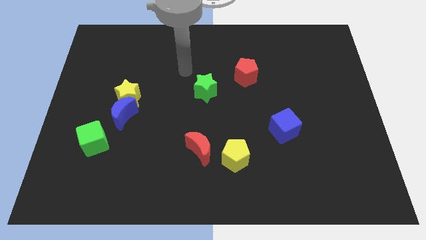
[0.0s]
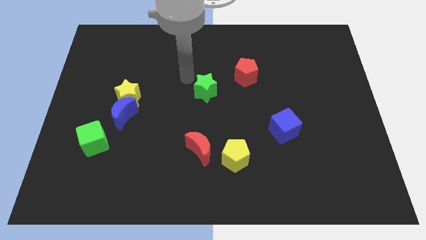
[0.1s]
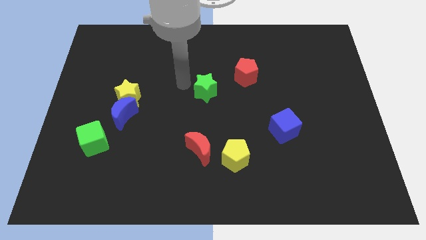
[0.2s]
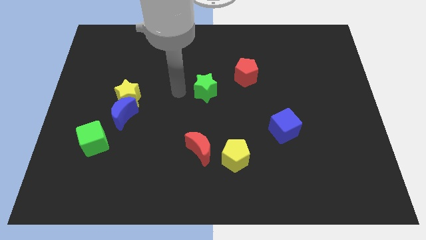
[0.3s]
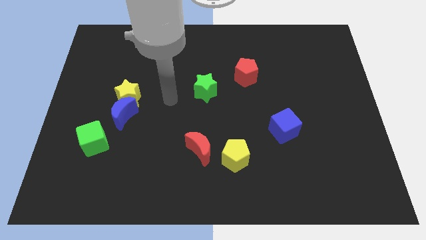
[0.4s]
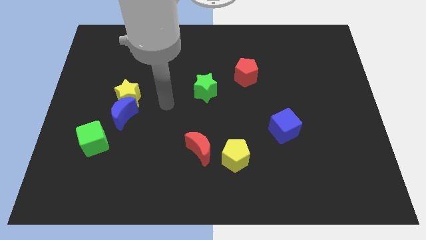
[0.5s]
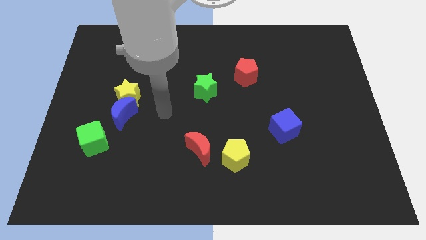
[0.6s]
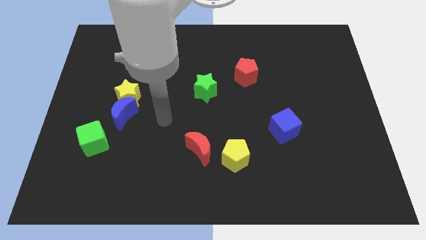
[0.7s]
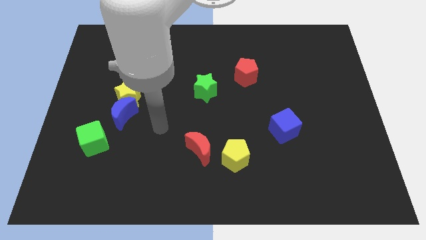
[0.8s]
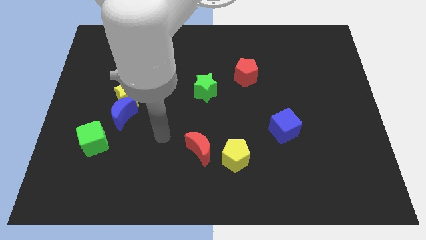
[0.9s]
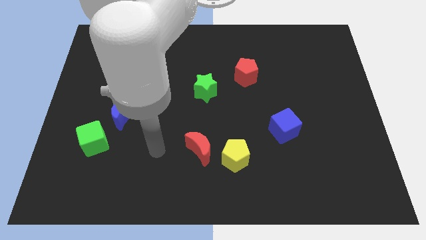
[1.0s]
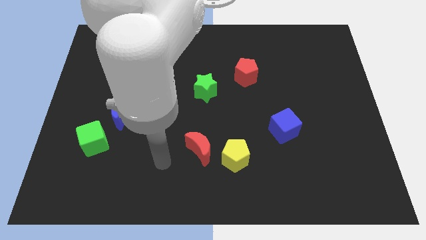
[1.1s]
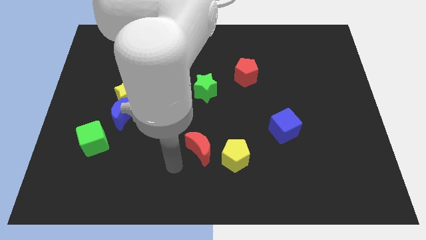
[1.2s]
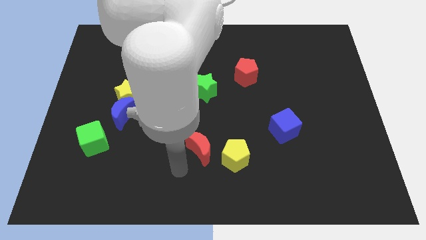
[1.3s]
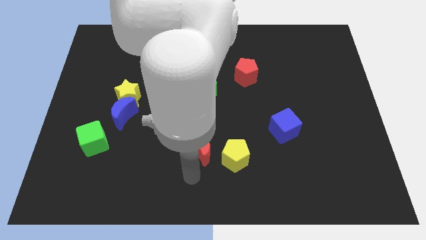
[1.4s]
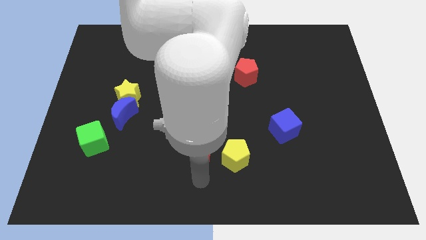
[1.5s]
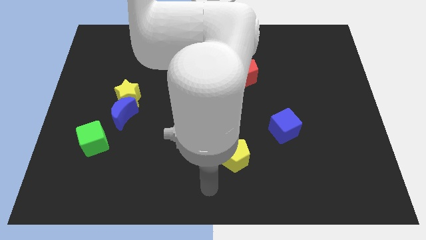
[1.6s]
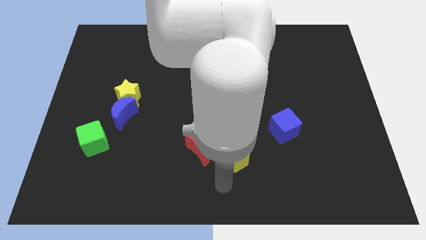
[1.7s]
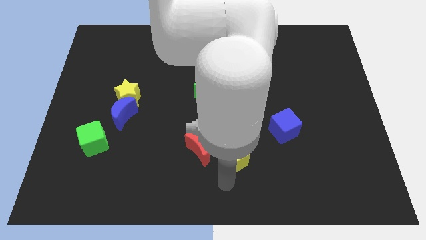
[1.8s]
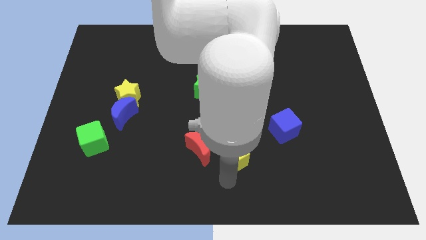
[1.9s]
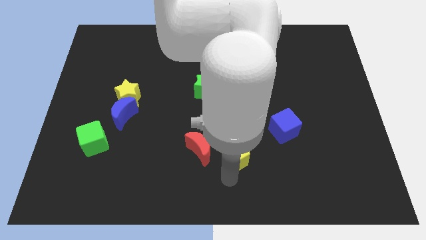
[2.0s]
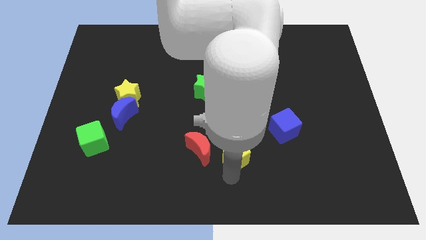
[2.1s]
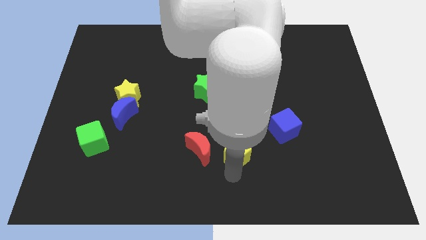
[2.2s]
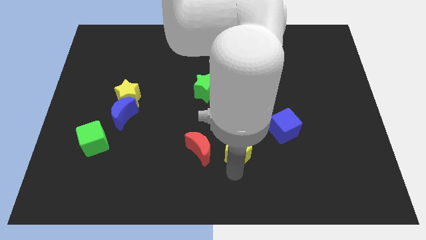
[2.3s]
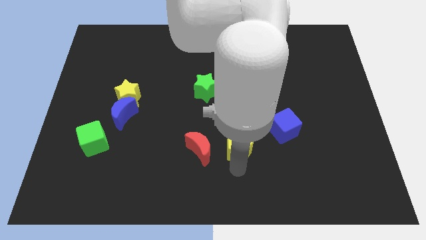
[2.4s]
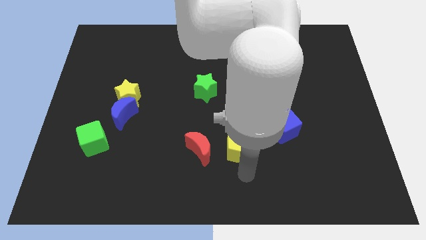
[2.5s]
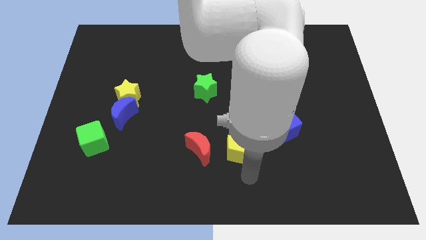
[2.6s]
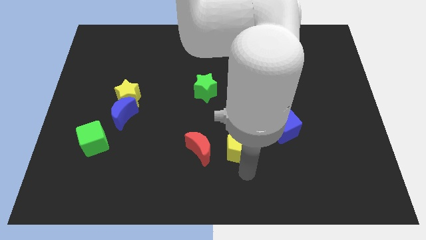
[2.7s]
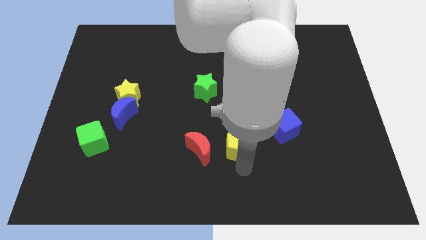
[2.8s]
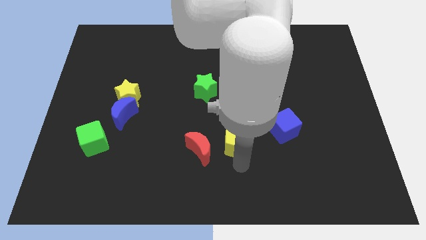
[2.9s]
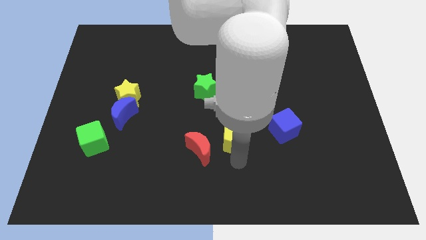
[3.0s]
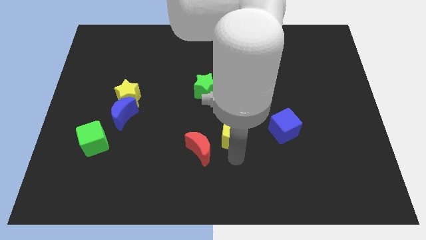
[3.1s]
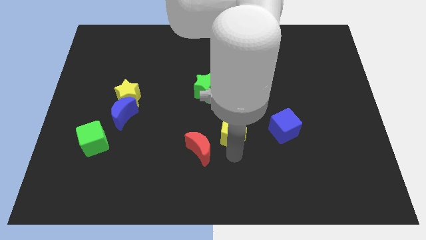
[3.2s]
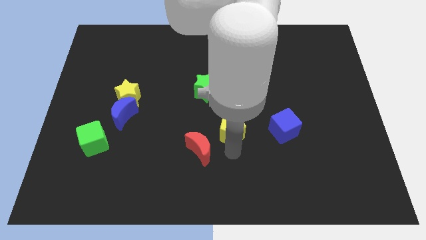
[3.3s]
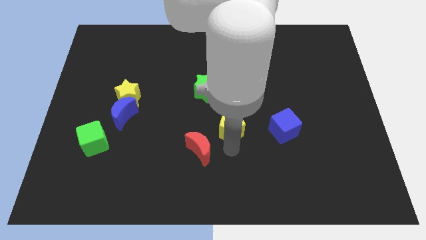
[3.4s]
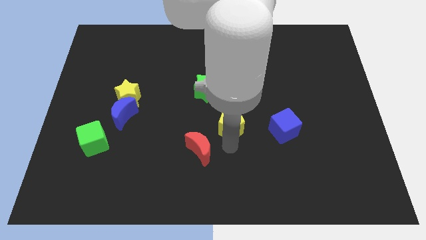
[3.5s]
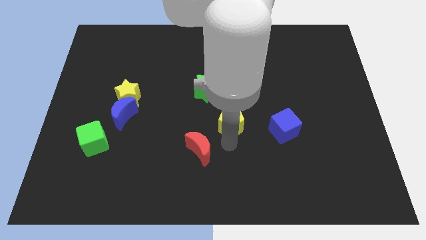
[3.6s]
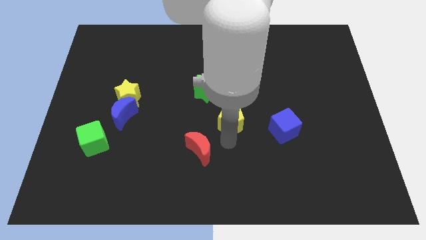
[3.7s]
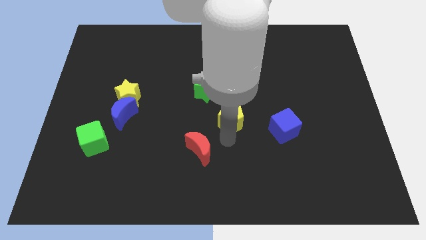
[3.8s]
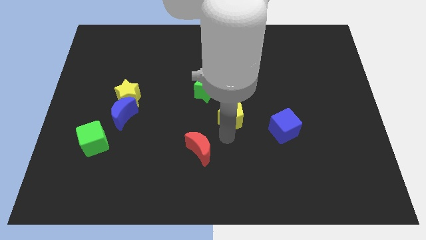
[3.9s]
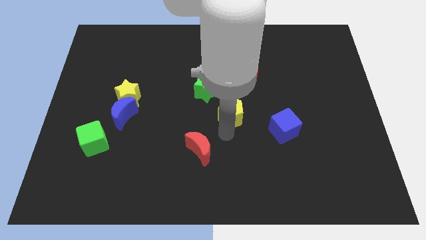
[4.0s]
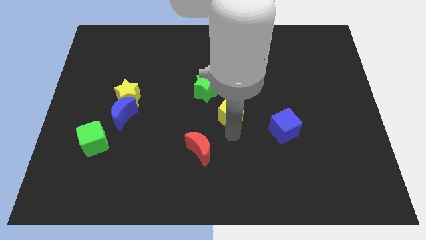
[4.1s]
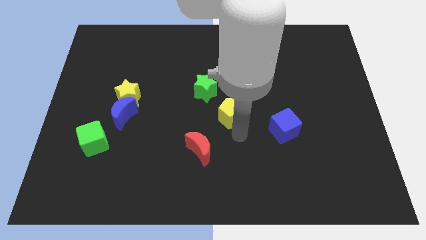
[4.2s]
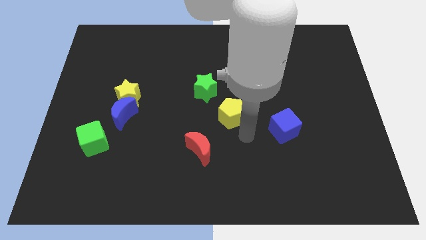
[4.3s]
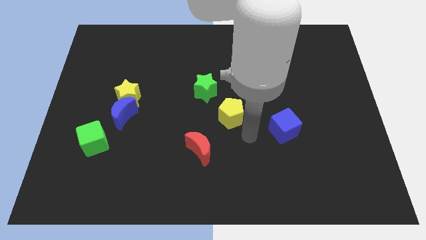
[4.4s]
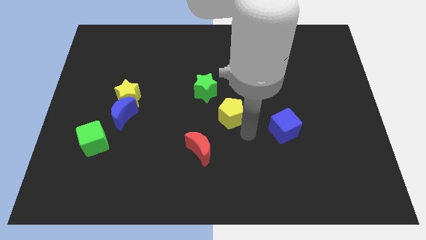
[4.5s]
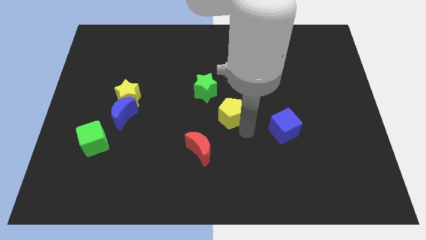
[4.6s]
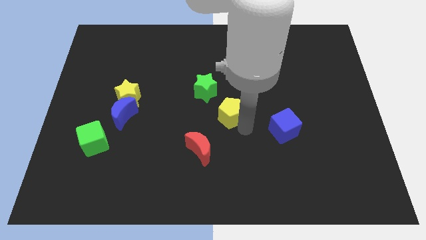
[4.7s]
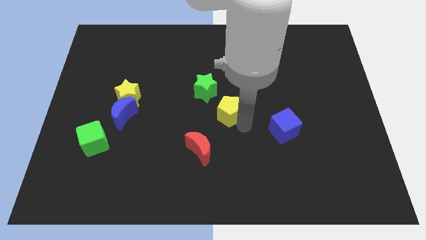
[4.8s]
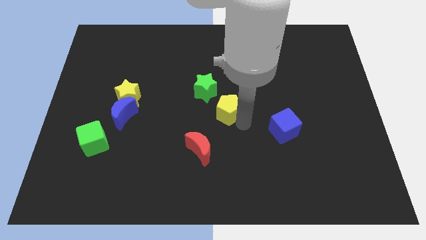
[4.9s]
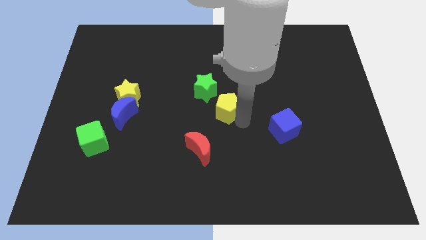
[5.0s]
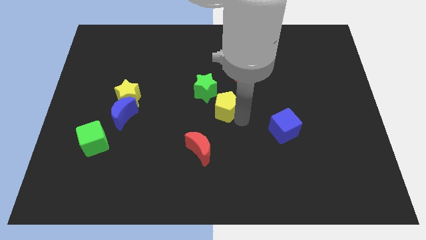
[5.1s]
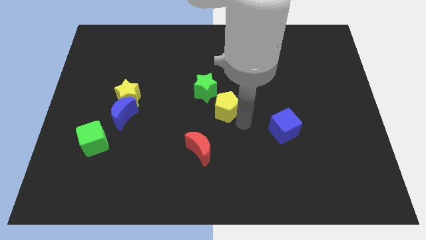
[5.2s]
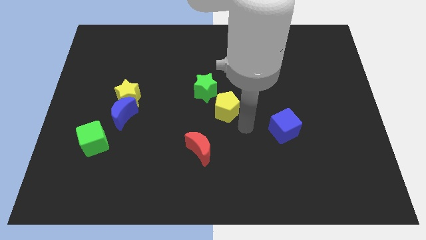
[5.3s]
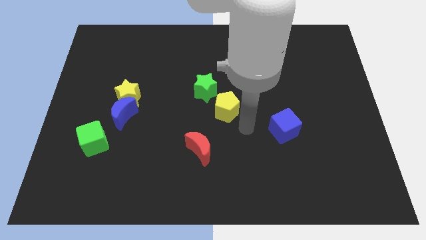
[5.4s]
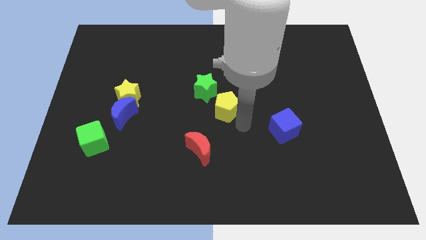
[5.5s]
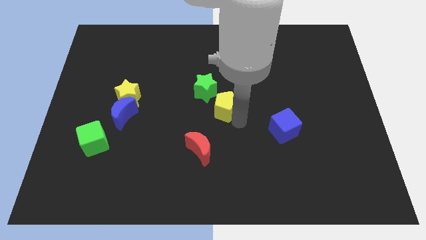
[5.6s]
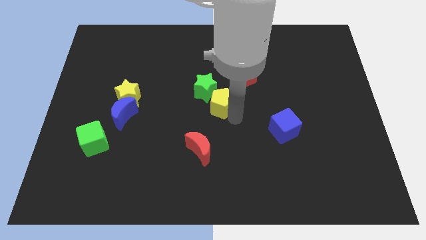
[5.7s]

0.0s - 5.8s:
slide the yellow pentagon close to the green star

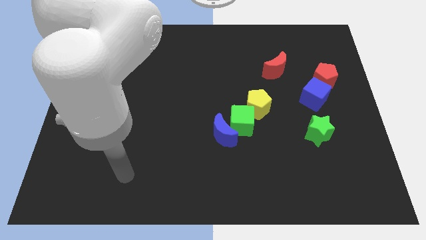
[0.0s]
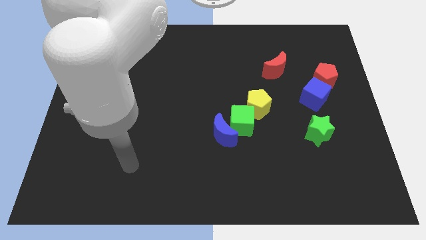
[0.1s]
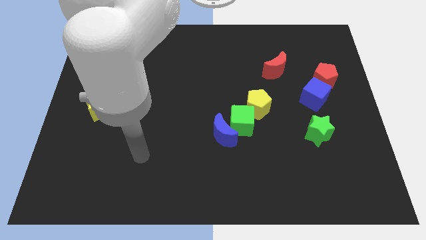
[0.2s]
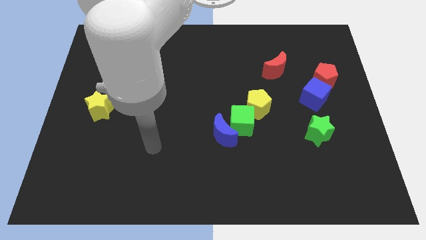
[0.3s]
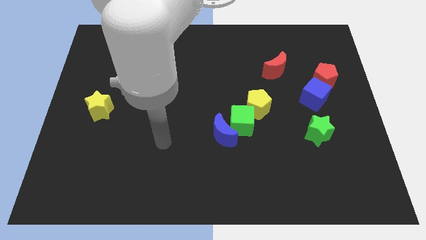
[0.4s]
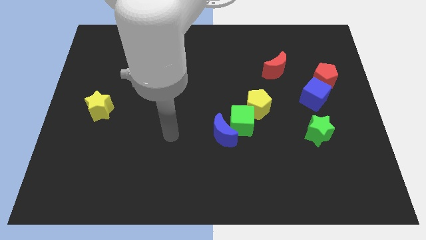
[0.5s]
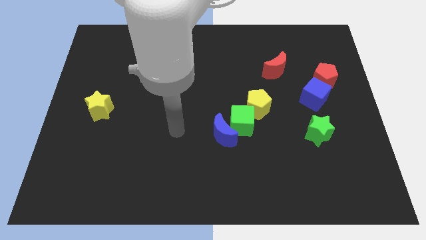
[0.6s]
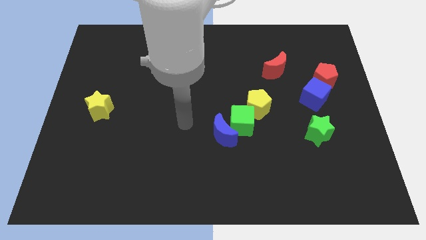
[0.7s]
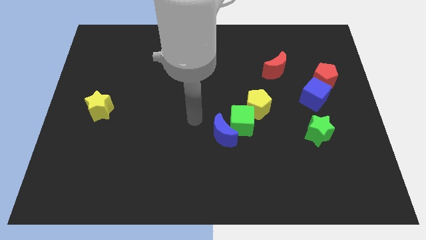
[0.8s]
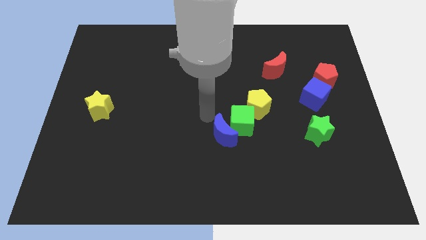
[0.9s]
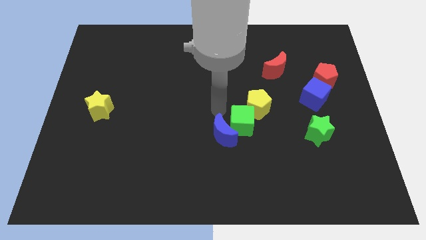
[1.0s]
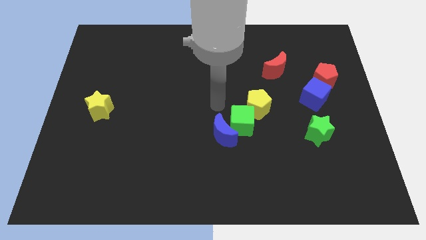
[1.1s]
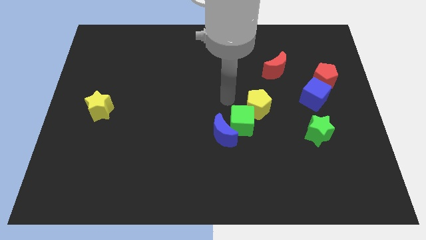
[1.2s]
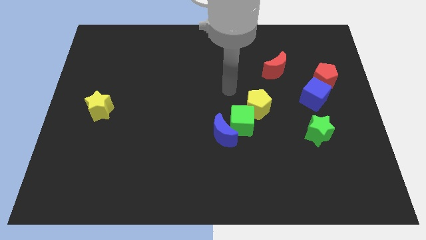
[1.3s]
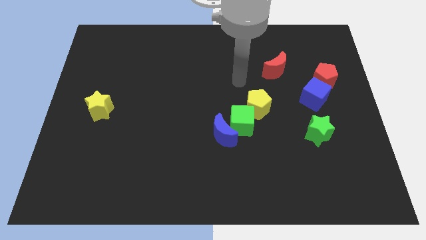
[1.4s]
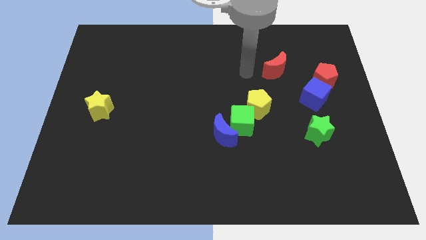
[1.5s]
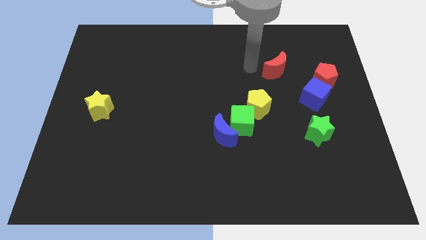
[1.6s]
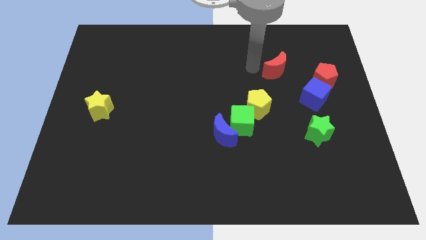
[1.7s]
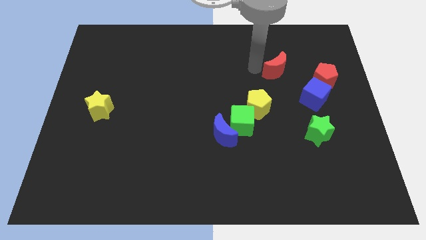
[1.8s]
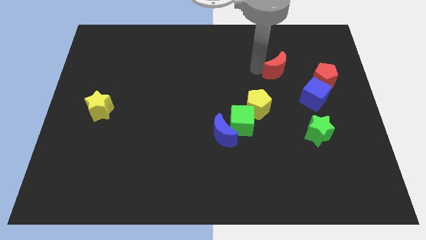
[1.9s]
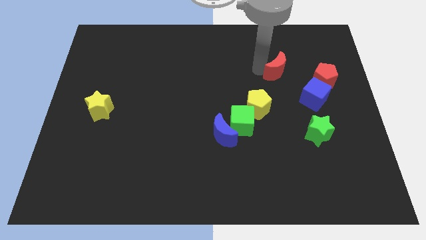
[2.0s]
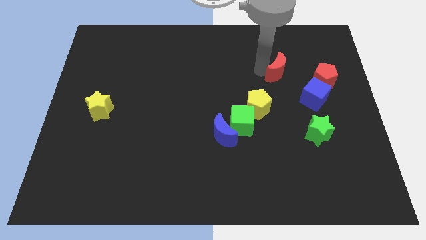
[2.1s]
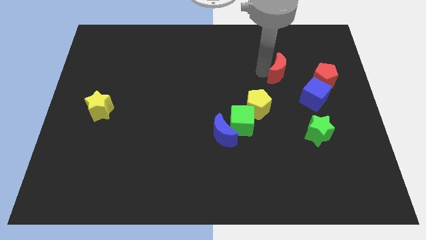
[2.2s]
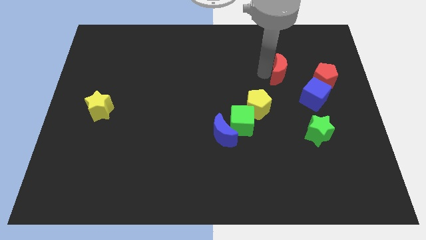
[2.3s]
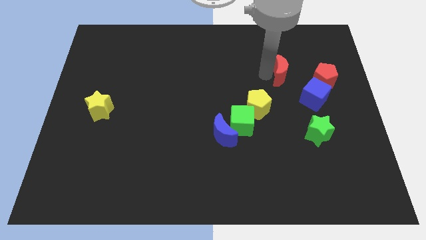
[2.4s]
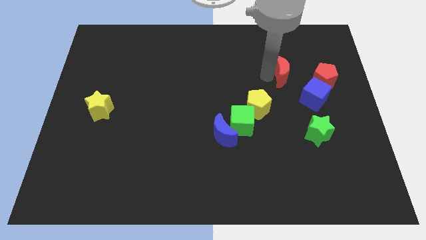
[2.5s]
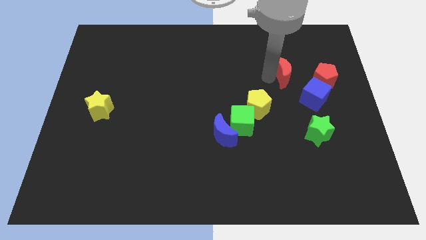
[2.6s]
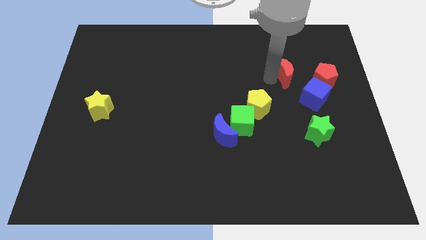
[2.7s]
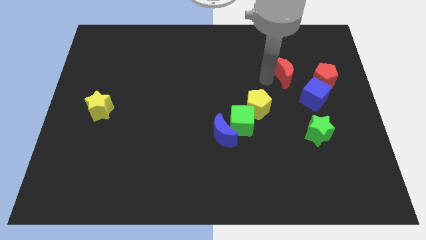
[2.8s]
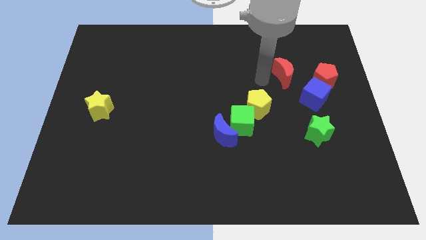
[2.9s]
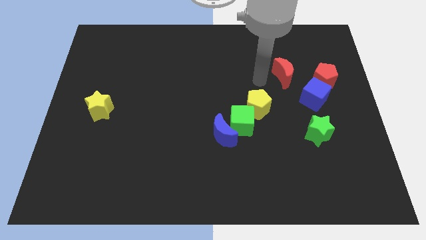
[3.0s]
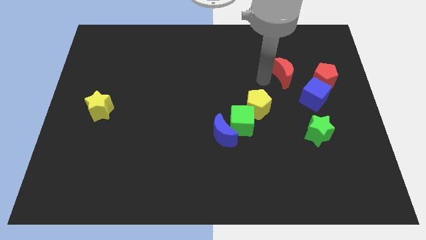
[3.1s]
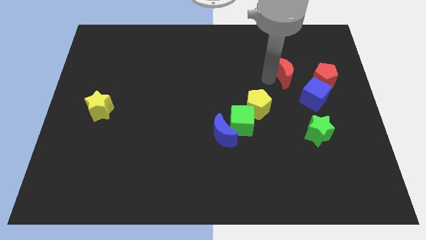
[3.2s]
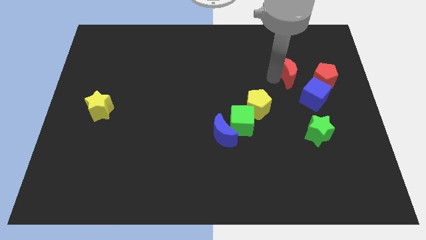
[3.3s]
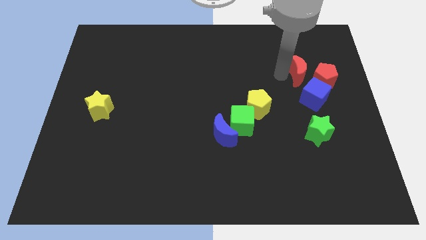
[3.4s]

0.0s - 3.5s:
move the red moon close to the red pentagon
